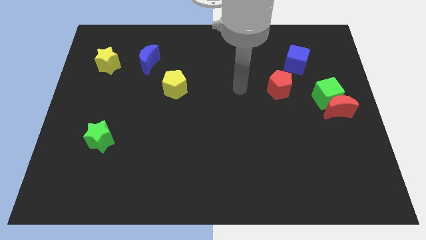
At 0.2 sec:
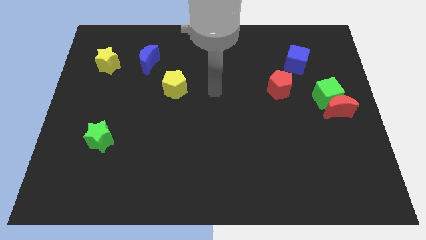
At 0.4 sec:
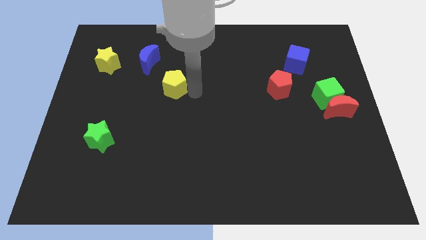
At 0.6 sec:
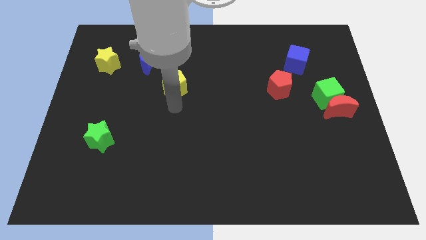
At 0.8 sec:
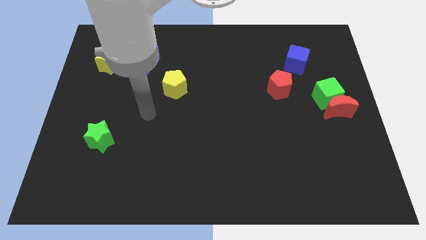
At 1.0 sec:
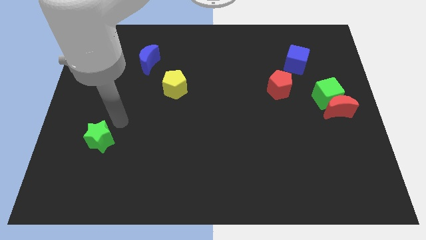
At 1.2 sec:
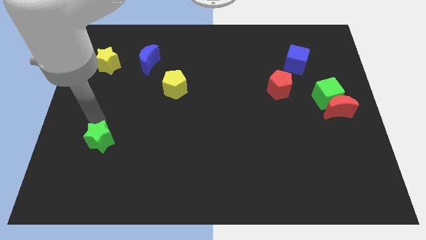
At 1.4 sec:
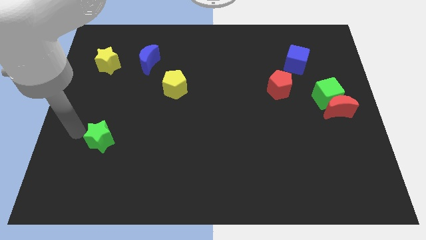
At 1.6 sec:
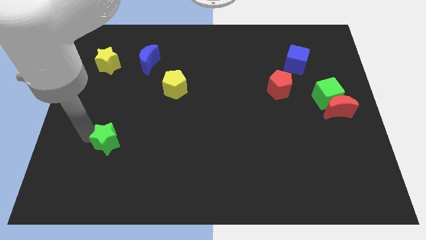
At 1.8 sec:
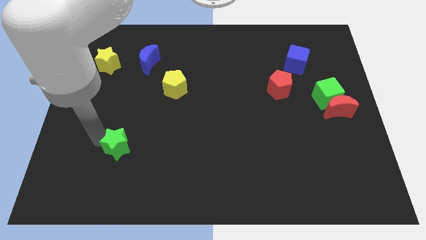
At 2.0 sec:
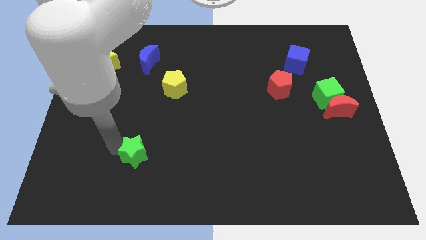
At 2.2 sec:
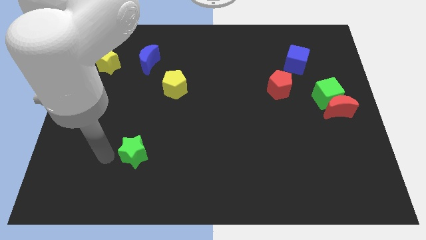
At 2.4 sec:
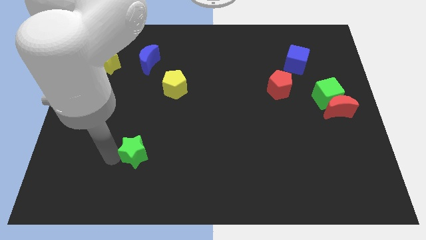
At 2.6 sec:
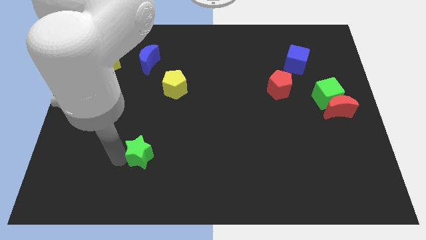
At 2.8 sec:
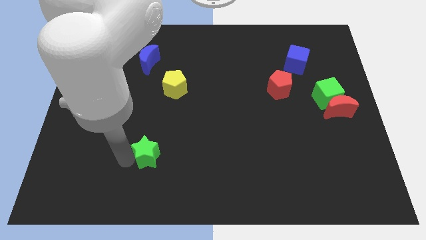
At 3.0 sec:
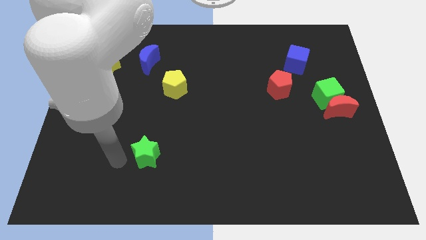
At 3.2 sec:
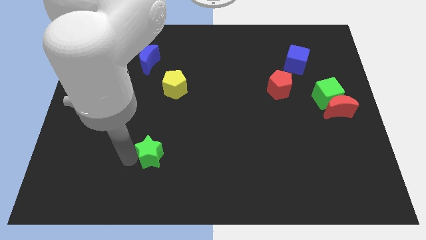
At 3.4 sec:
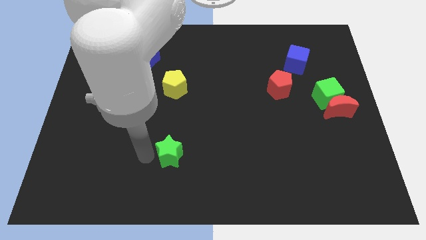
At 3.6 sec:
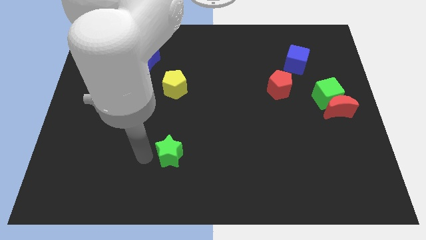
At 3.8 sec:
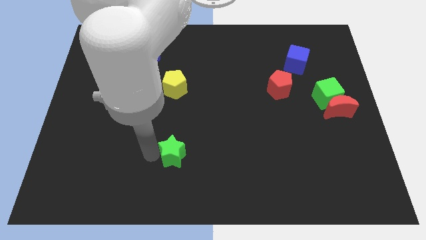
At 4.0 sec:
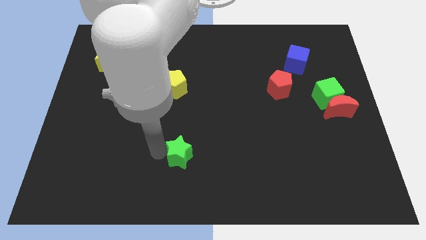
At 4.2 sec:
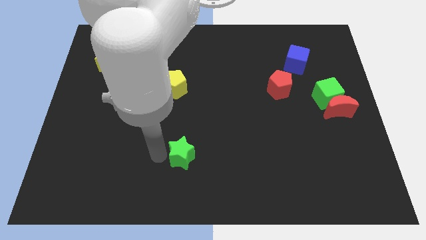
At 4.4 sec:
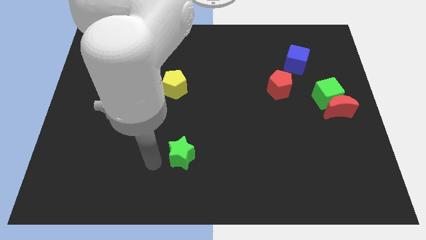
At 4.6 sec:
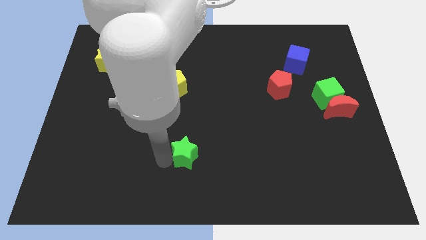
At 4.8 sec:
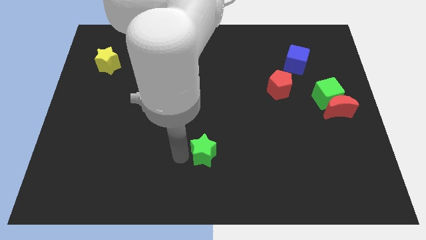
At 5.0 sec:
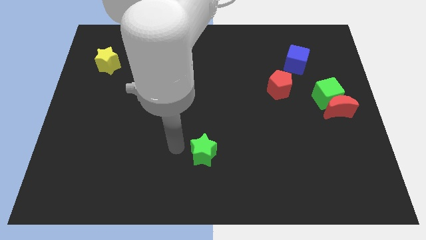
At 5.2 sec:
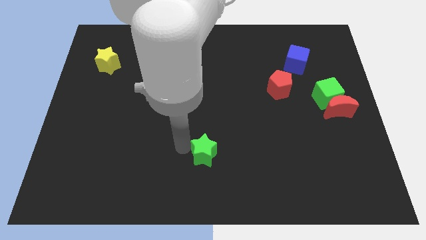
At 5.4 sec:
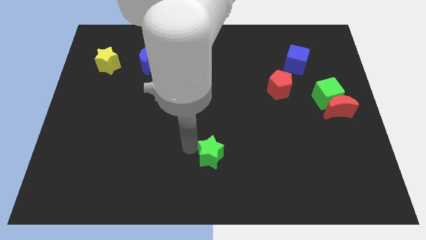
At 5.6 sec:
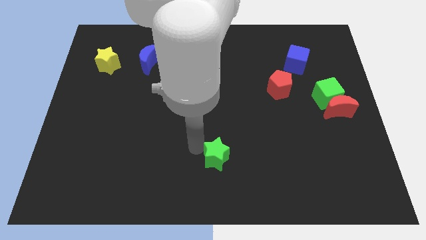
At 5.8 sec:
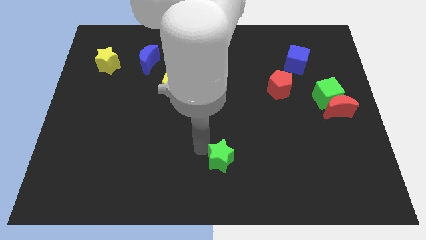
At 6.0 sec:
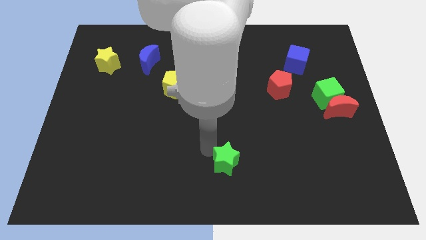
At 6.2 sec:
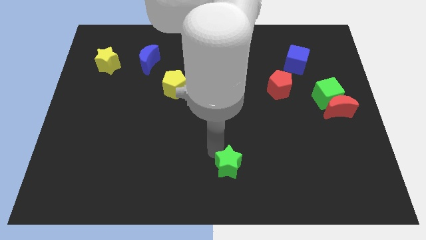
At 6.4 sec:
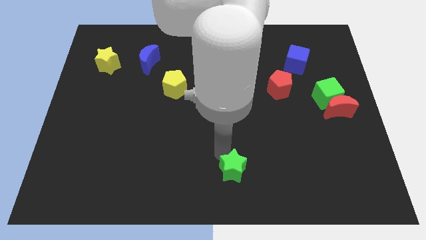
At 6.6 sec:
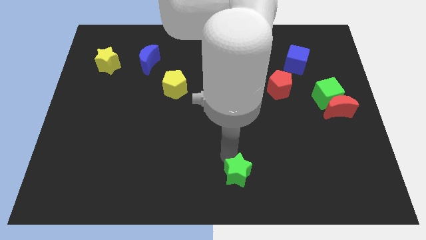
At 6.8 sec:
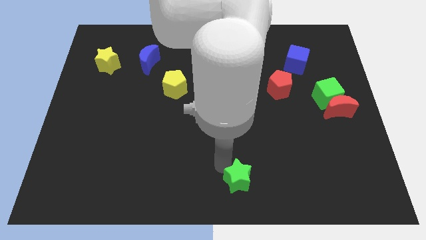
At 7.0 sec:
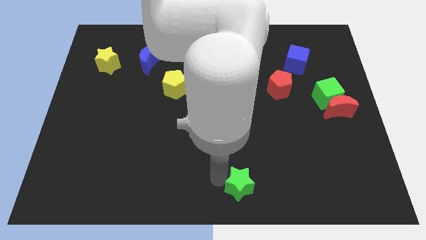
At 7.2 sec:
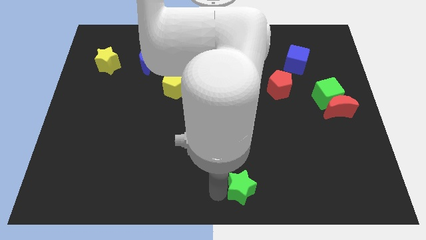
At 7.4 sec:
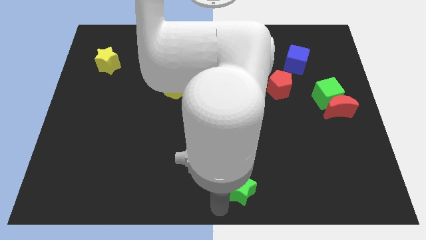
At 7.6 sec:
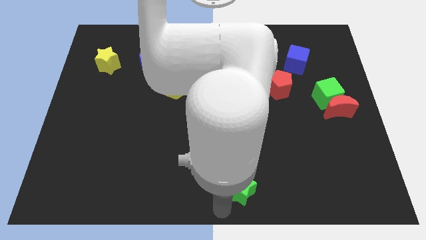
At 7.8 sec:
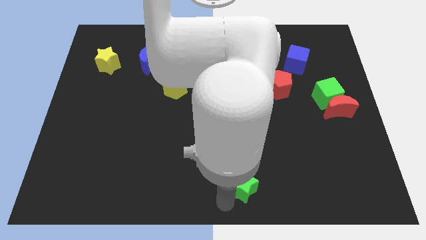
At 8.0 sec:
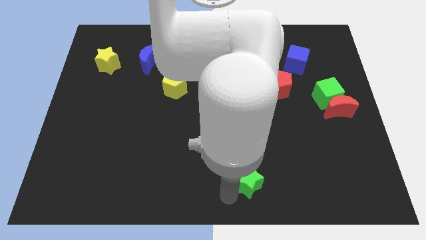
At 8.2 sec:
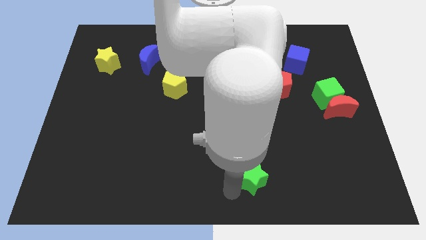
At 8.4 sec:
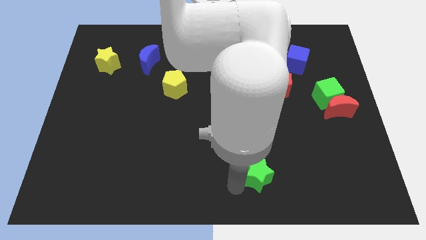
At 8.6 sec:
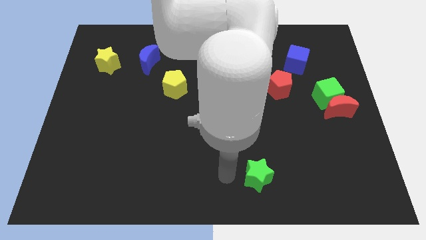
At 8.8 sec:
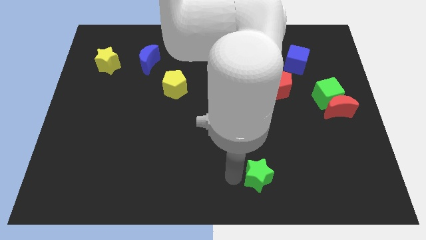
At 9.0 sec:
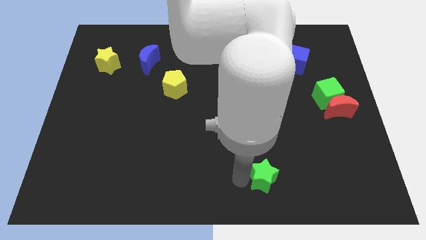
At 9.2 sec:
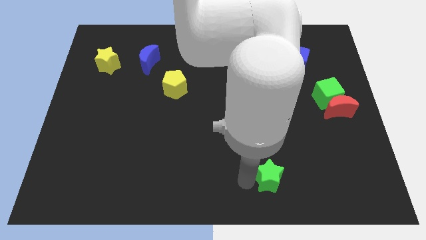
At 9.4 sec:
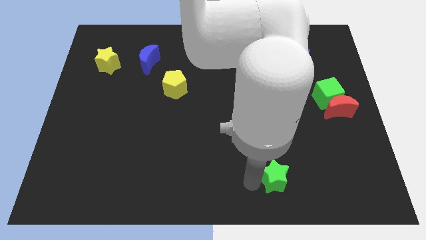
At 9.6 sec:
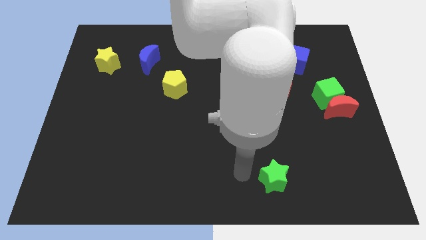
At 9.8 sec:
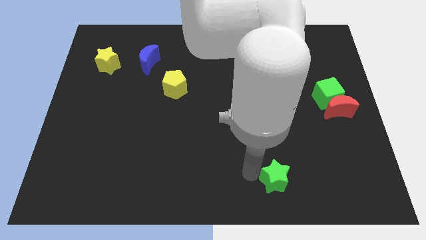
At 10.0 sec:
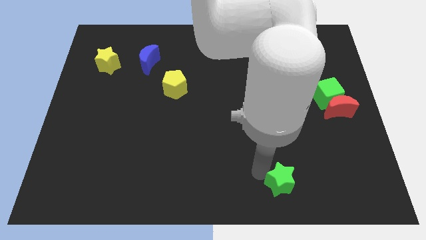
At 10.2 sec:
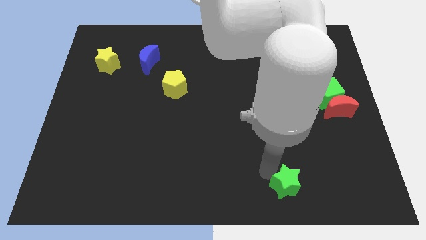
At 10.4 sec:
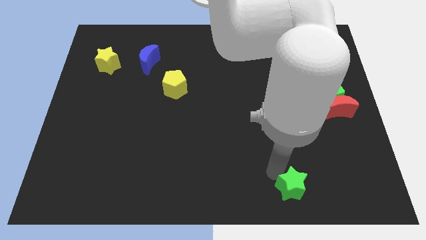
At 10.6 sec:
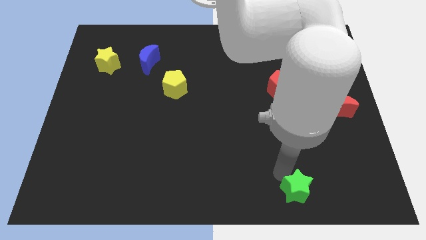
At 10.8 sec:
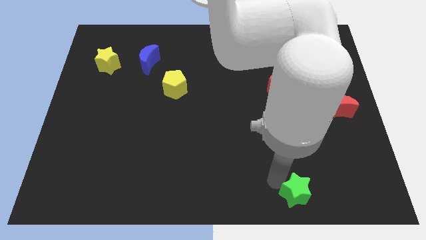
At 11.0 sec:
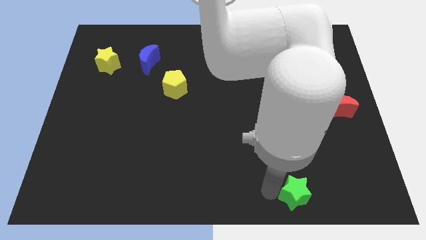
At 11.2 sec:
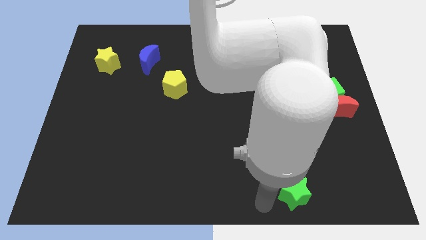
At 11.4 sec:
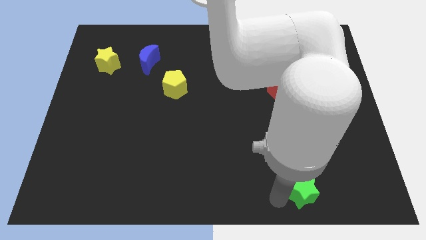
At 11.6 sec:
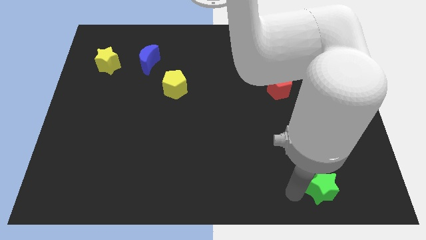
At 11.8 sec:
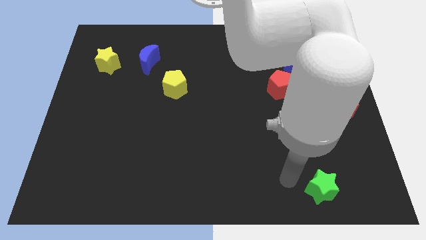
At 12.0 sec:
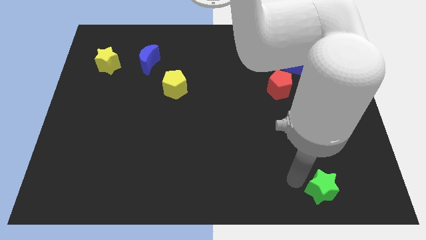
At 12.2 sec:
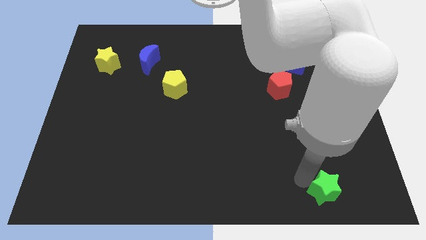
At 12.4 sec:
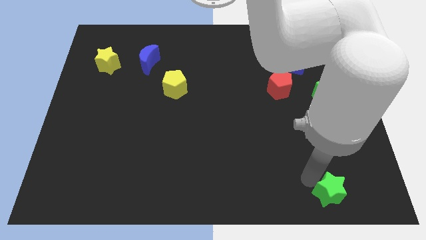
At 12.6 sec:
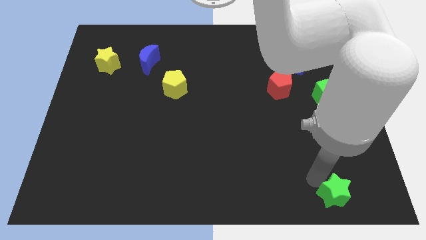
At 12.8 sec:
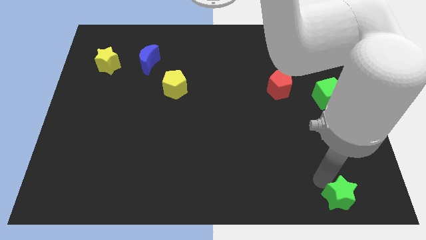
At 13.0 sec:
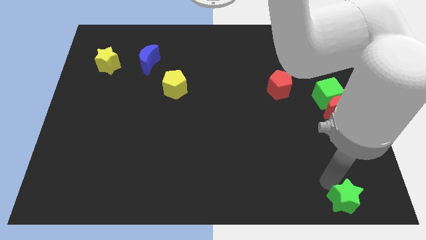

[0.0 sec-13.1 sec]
move the green star to the bottom right
